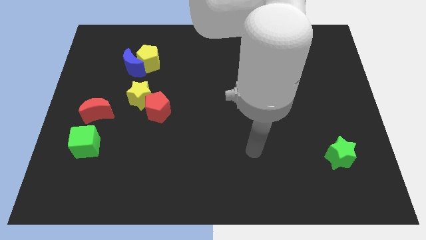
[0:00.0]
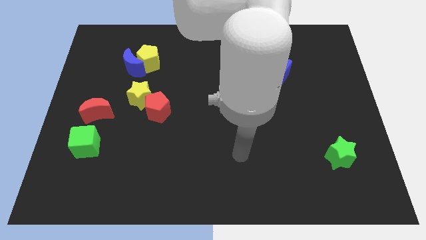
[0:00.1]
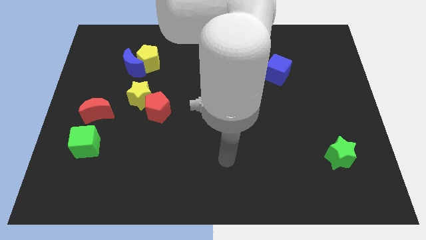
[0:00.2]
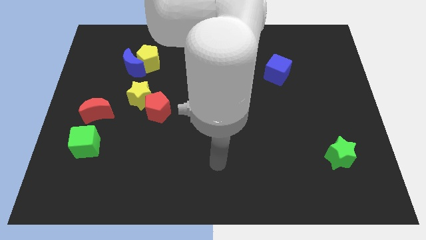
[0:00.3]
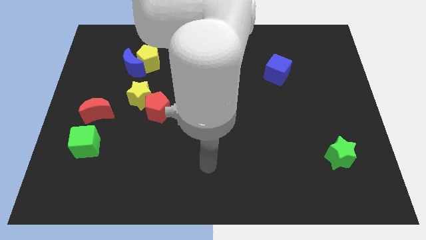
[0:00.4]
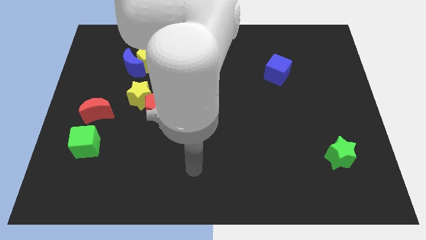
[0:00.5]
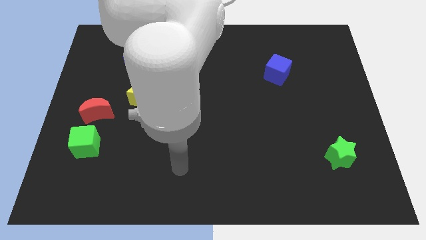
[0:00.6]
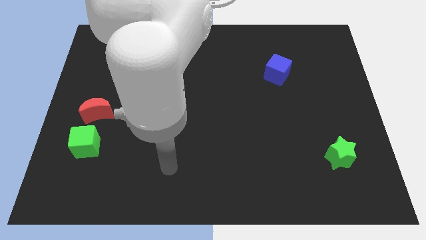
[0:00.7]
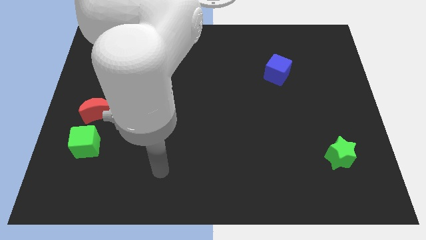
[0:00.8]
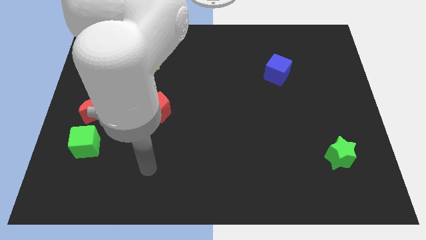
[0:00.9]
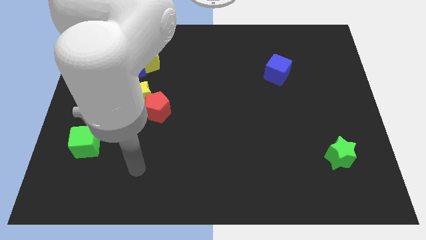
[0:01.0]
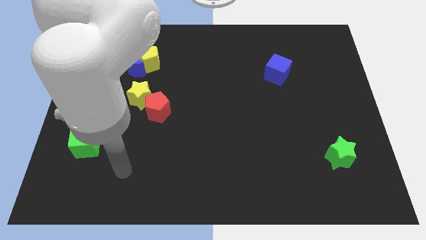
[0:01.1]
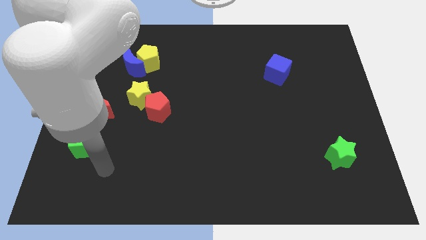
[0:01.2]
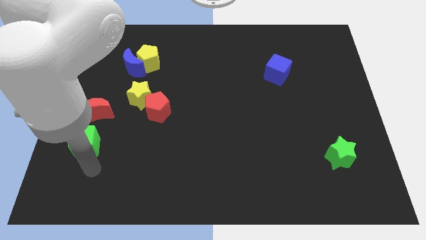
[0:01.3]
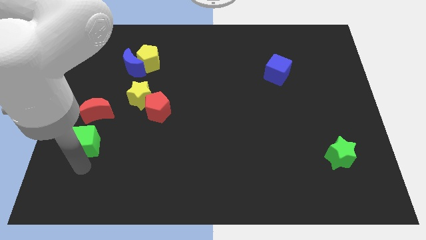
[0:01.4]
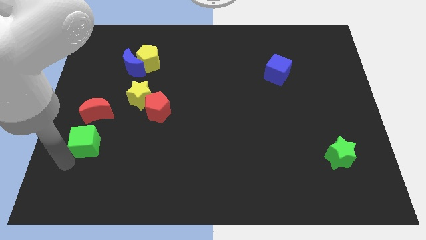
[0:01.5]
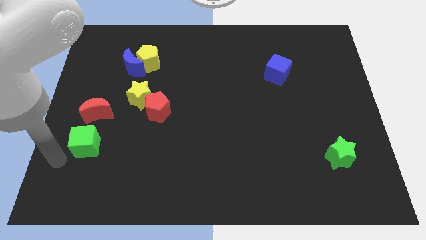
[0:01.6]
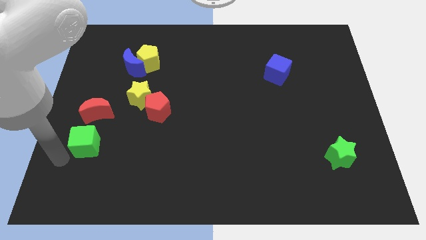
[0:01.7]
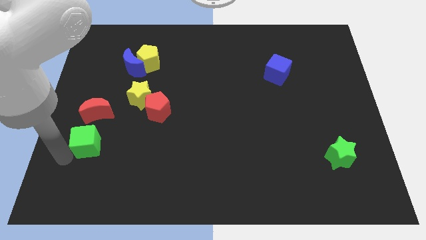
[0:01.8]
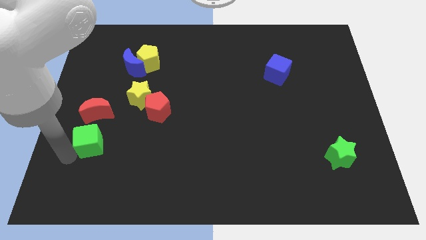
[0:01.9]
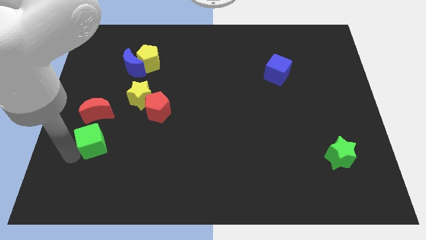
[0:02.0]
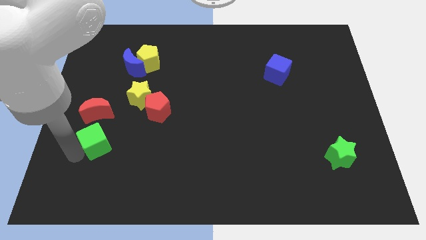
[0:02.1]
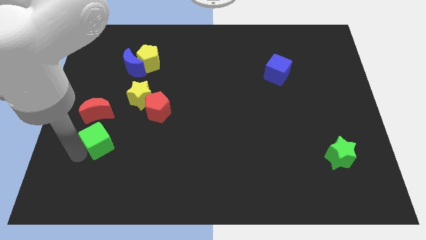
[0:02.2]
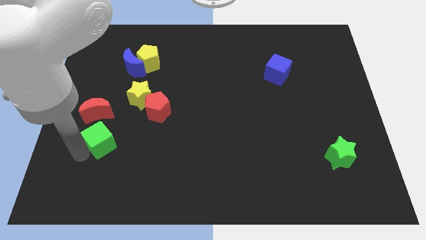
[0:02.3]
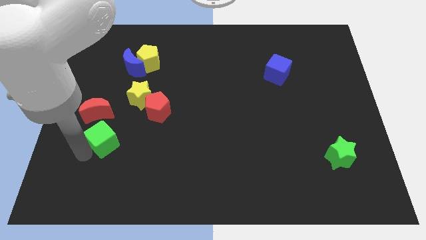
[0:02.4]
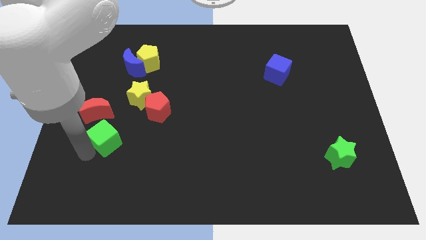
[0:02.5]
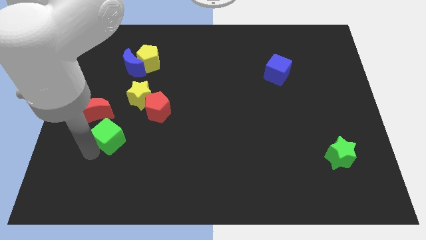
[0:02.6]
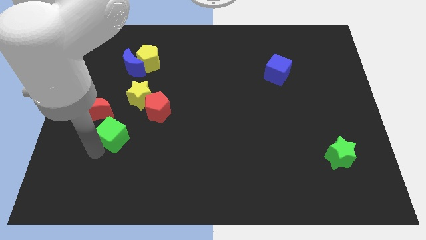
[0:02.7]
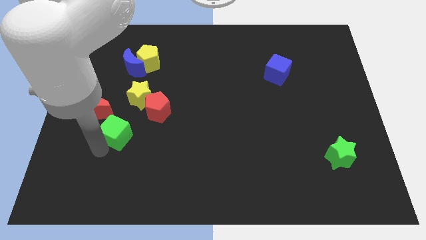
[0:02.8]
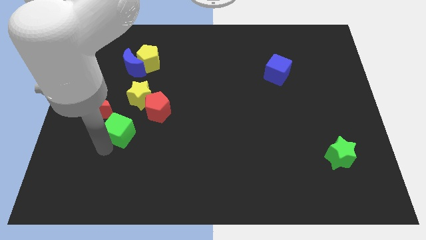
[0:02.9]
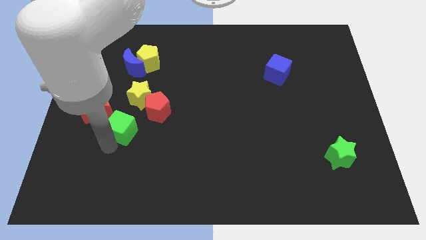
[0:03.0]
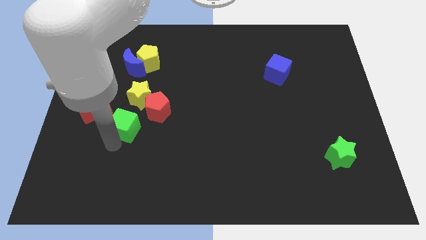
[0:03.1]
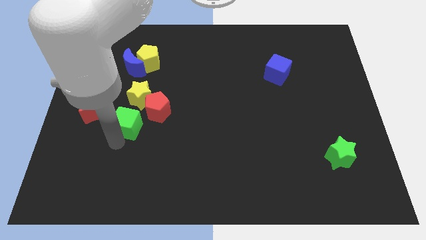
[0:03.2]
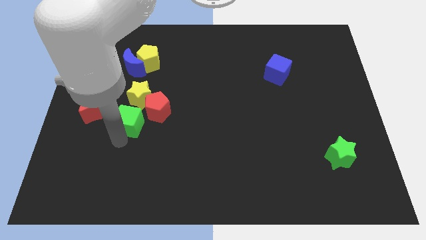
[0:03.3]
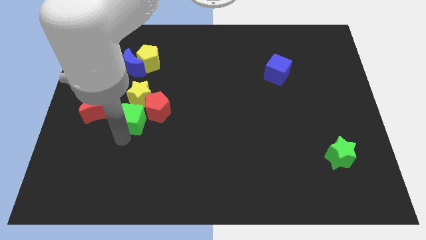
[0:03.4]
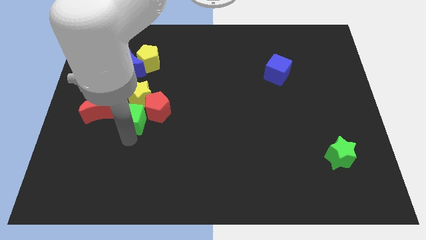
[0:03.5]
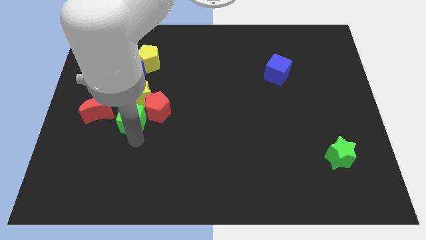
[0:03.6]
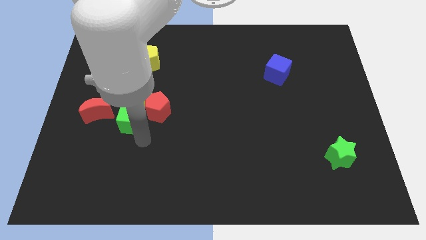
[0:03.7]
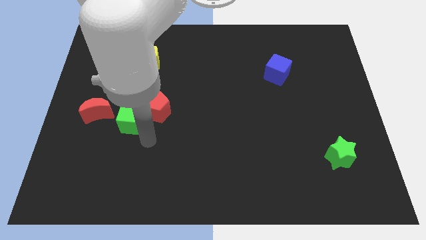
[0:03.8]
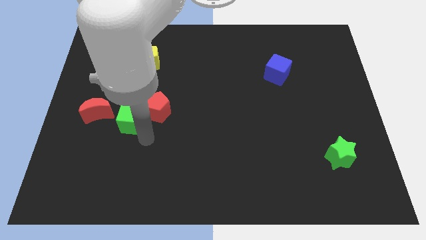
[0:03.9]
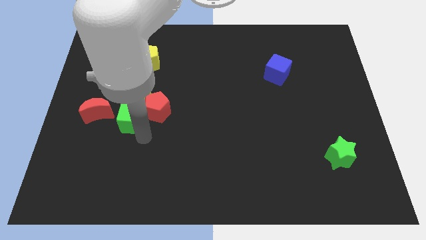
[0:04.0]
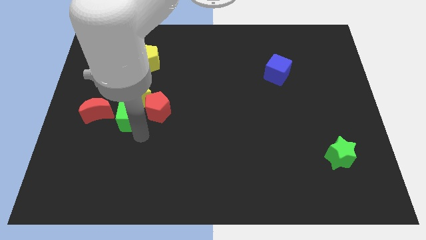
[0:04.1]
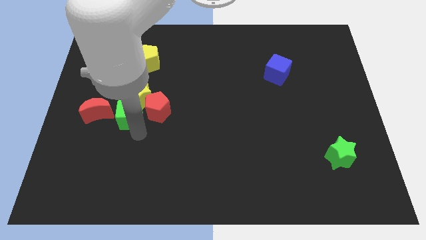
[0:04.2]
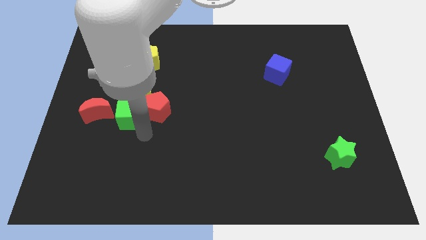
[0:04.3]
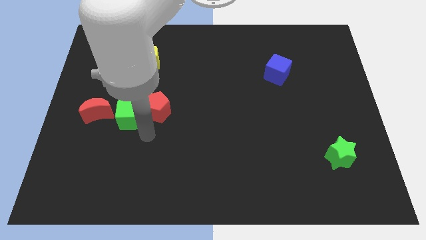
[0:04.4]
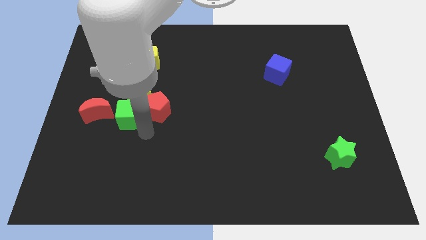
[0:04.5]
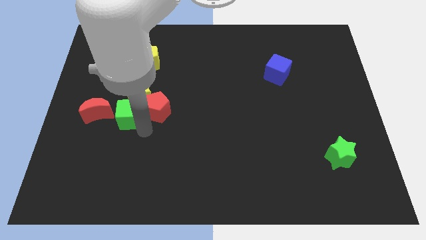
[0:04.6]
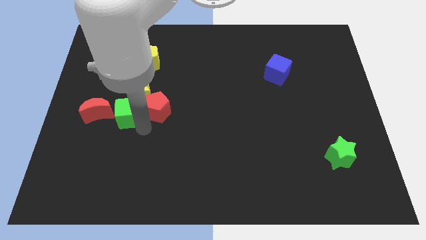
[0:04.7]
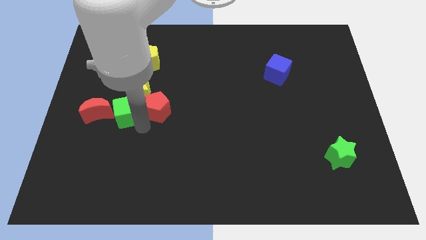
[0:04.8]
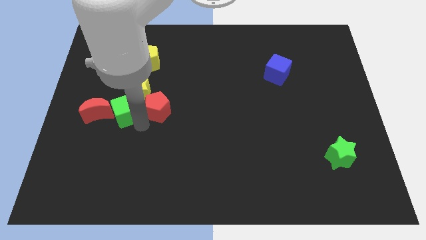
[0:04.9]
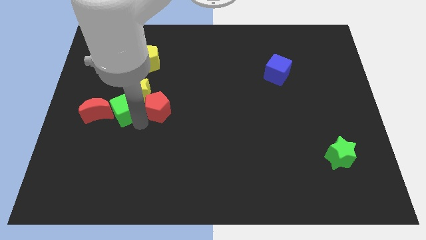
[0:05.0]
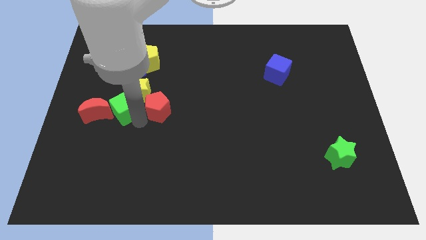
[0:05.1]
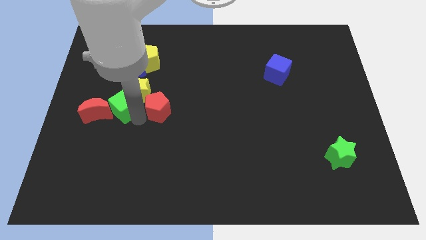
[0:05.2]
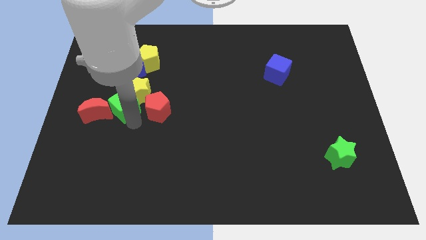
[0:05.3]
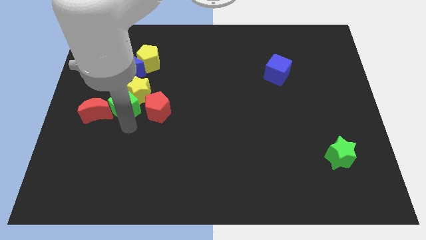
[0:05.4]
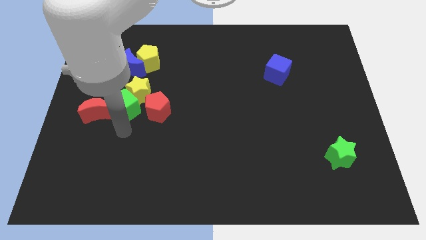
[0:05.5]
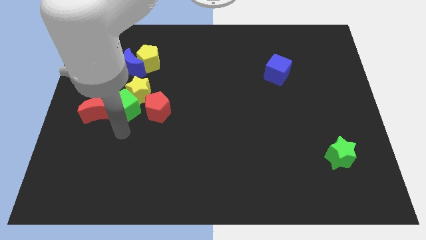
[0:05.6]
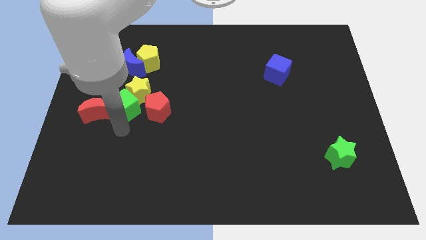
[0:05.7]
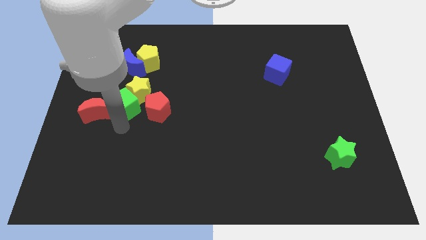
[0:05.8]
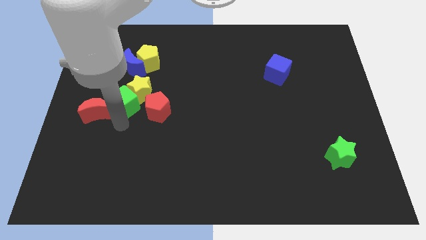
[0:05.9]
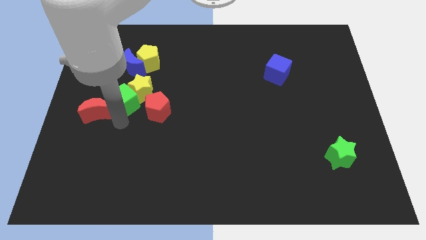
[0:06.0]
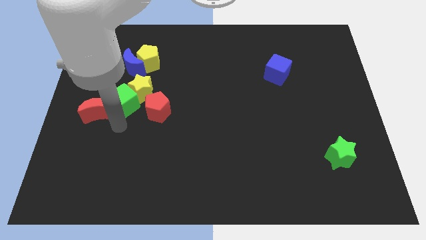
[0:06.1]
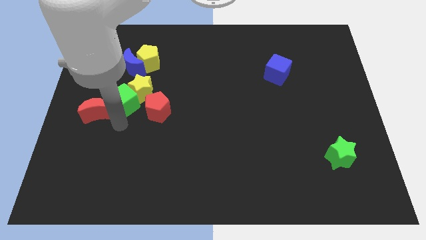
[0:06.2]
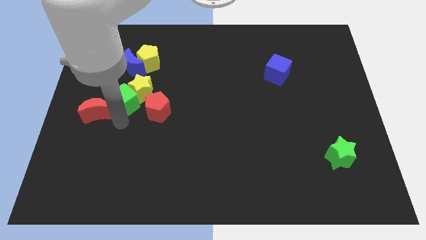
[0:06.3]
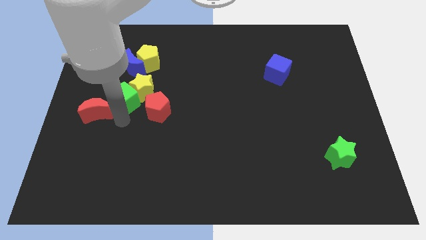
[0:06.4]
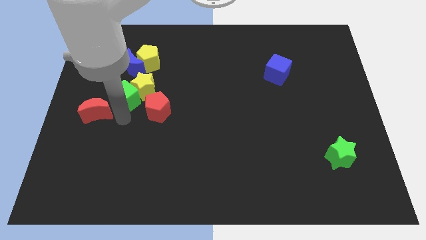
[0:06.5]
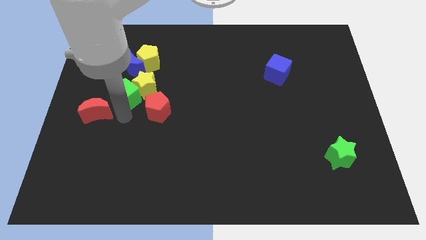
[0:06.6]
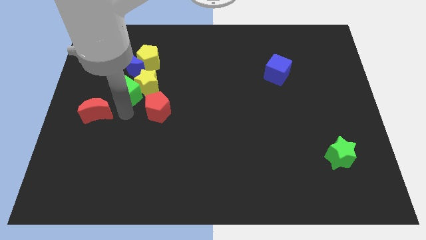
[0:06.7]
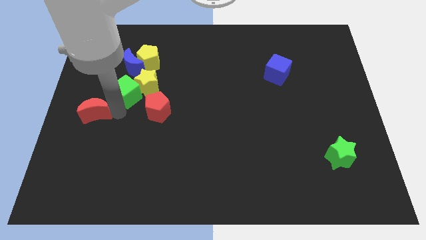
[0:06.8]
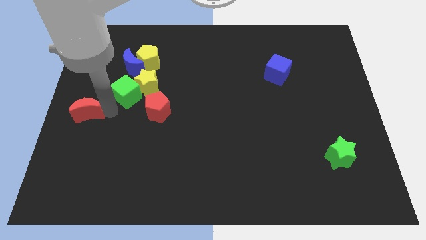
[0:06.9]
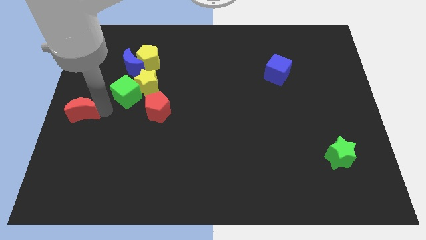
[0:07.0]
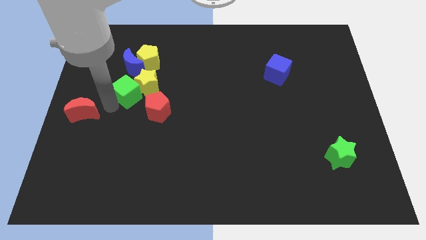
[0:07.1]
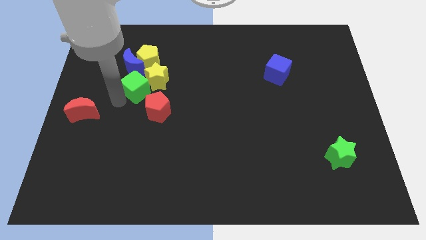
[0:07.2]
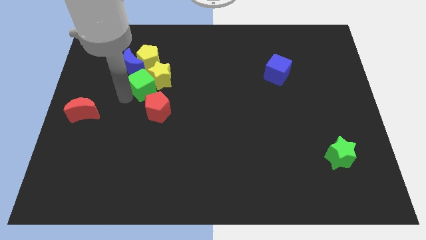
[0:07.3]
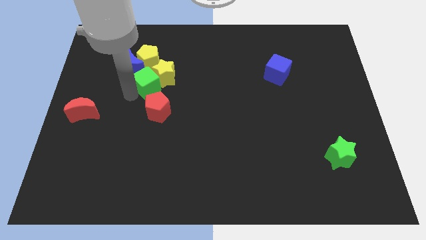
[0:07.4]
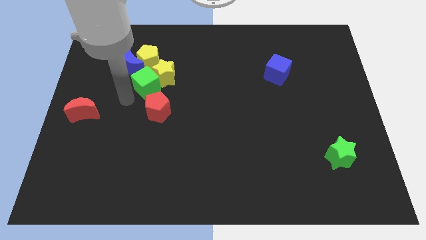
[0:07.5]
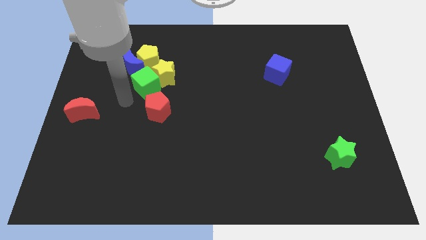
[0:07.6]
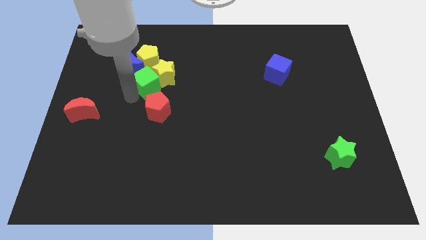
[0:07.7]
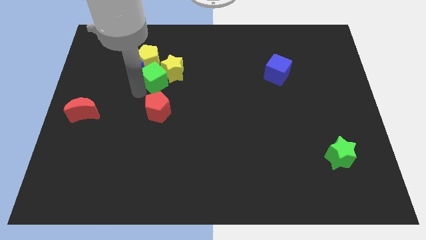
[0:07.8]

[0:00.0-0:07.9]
move the green cube just right of the blue moon
